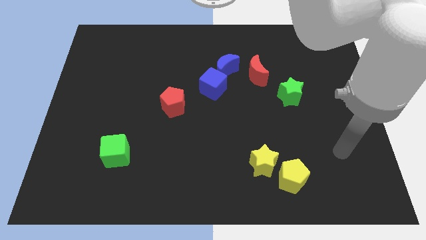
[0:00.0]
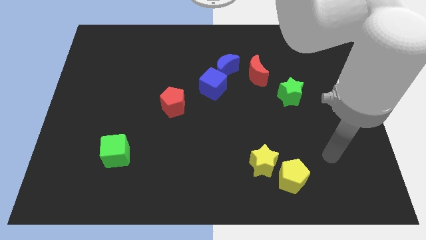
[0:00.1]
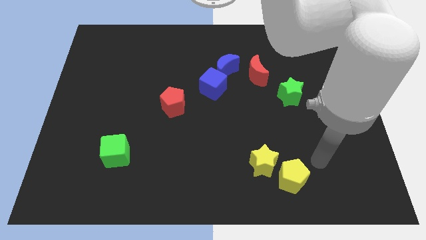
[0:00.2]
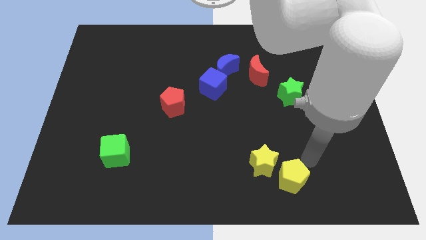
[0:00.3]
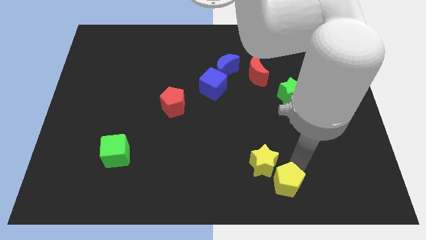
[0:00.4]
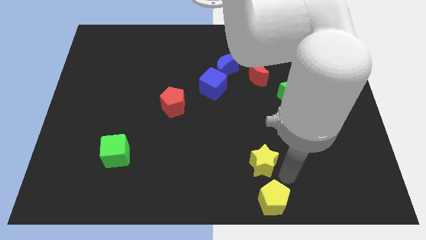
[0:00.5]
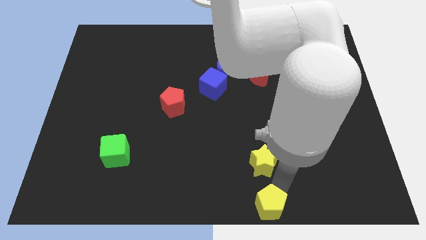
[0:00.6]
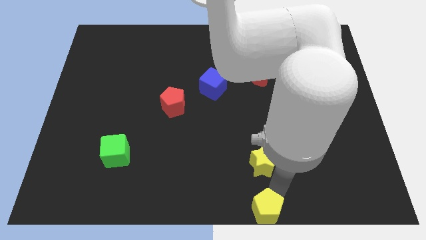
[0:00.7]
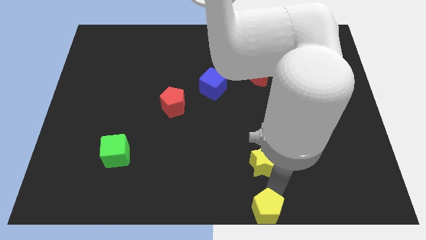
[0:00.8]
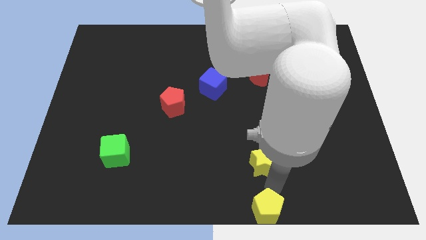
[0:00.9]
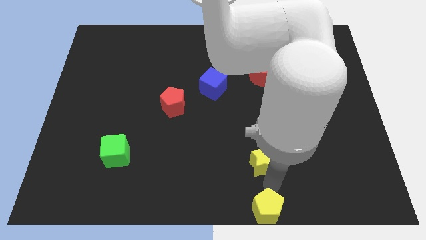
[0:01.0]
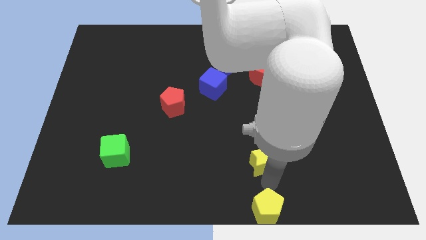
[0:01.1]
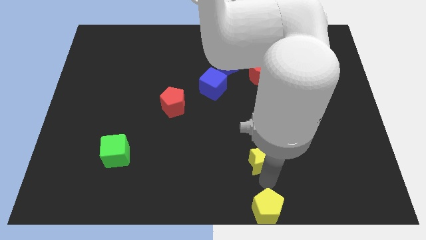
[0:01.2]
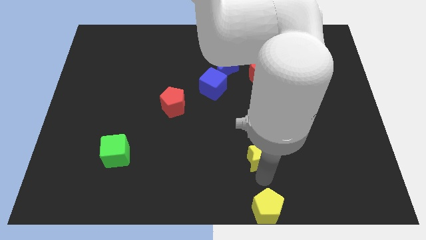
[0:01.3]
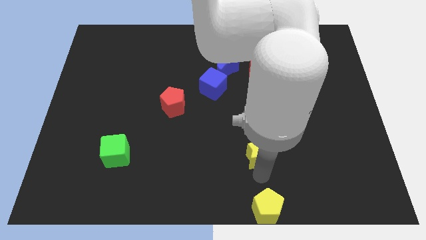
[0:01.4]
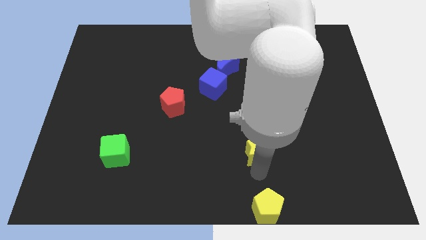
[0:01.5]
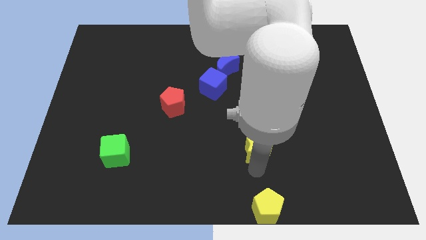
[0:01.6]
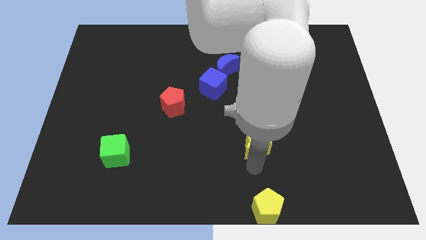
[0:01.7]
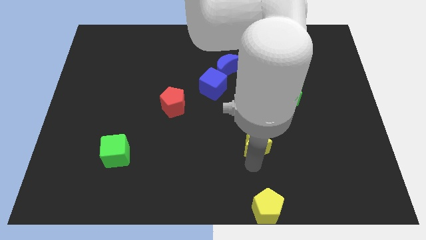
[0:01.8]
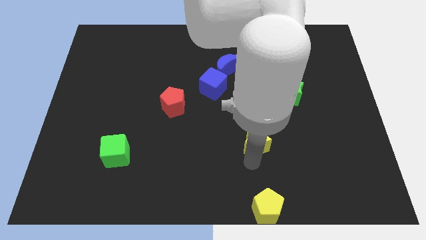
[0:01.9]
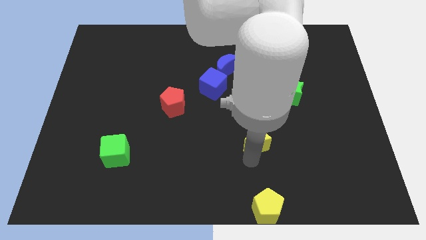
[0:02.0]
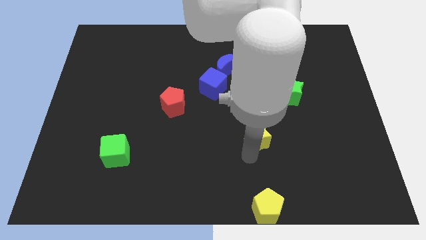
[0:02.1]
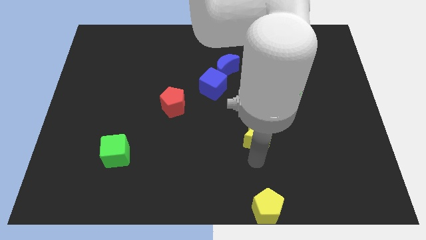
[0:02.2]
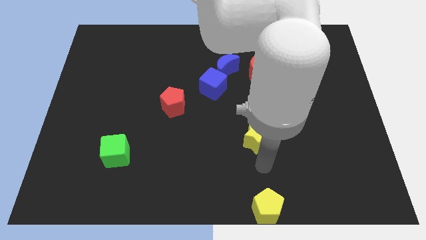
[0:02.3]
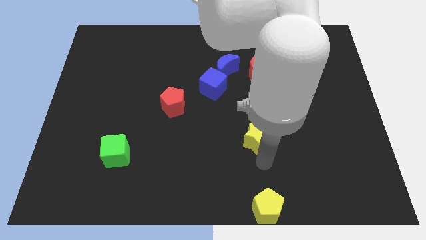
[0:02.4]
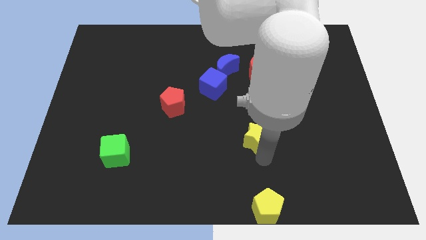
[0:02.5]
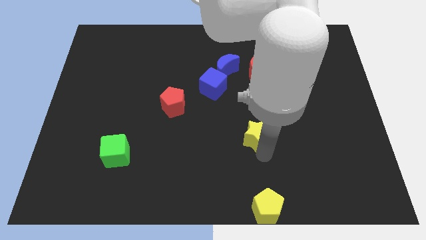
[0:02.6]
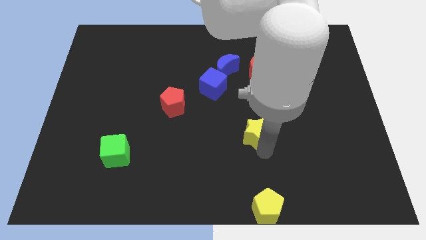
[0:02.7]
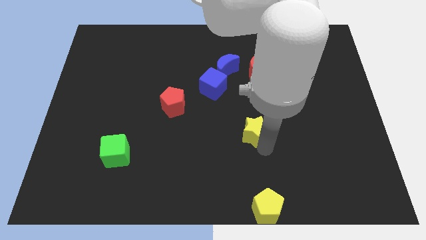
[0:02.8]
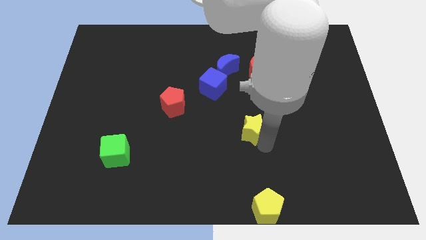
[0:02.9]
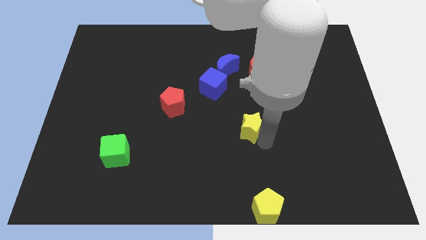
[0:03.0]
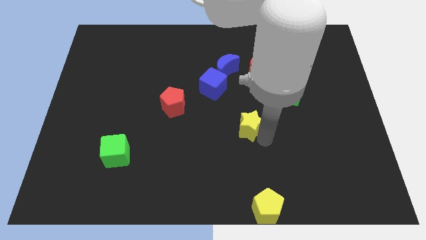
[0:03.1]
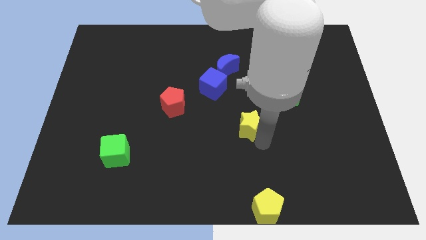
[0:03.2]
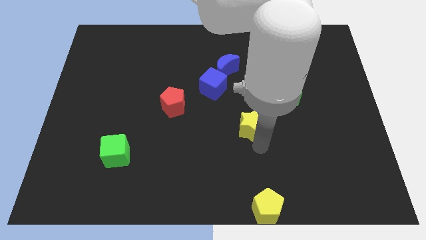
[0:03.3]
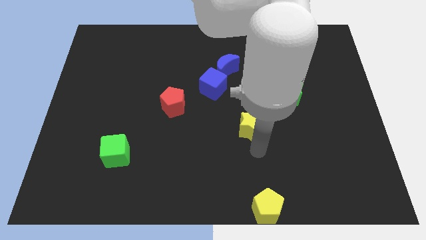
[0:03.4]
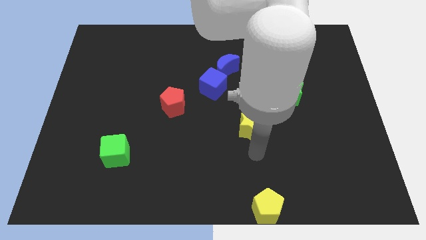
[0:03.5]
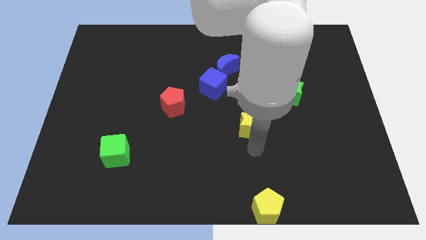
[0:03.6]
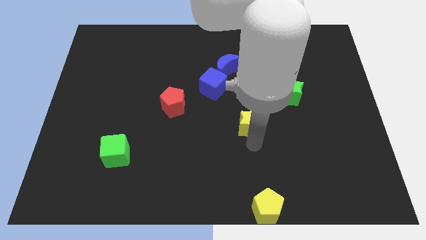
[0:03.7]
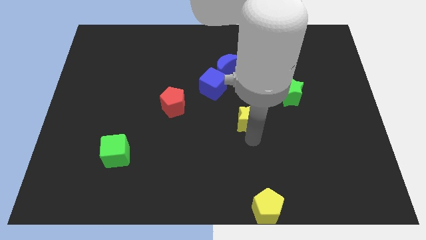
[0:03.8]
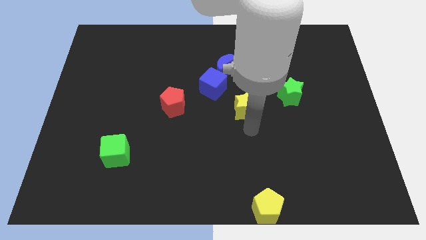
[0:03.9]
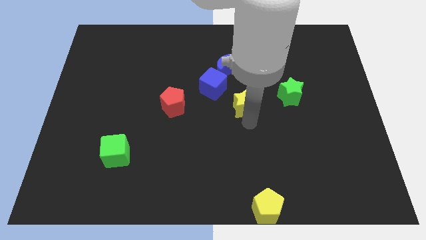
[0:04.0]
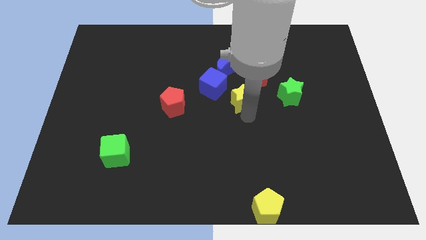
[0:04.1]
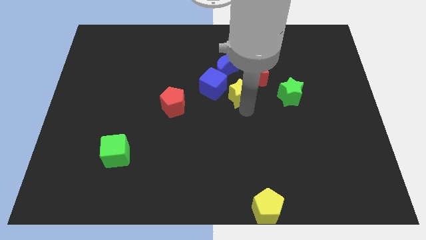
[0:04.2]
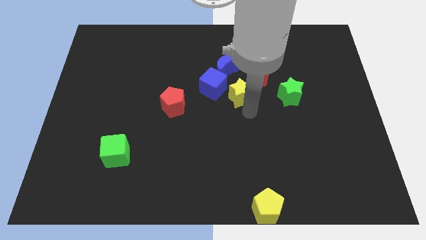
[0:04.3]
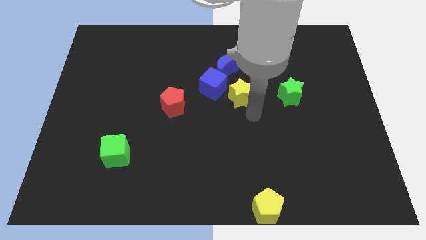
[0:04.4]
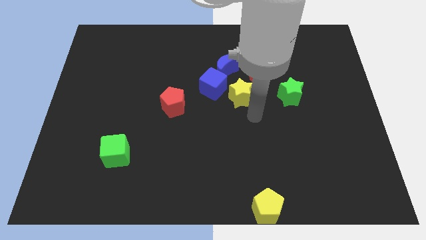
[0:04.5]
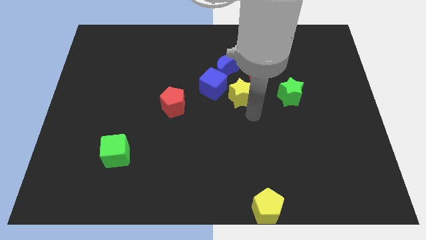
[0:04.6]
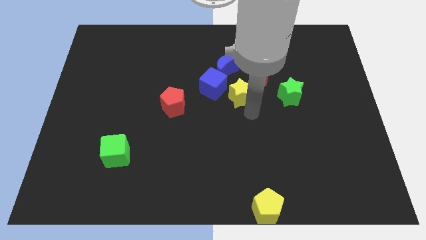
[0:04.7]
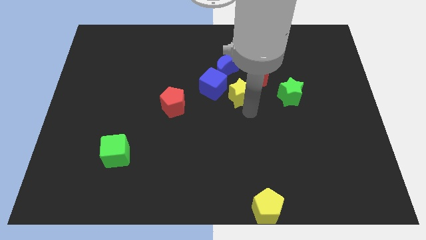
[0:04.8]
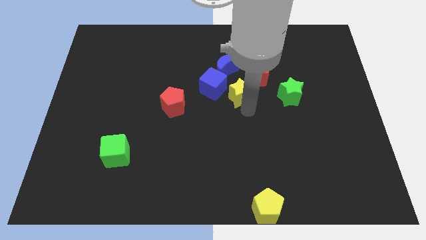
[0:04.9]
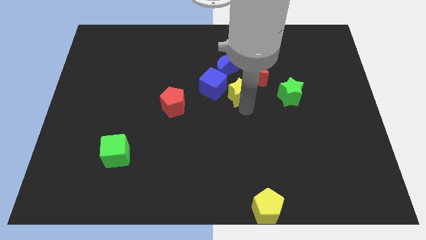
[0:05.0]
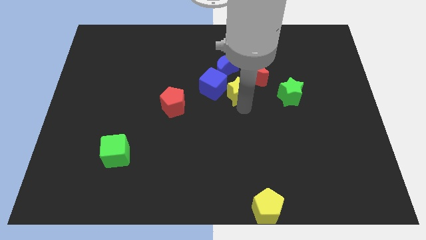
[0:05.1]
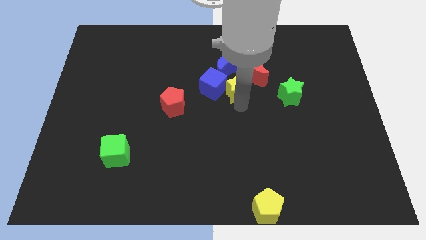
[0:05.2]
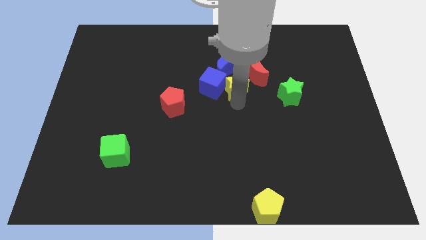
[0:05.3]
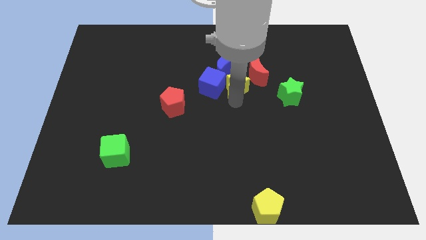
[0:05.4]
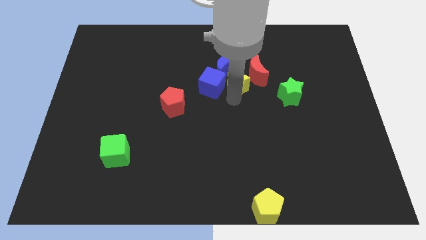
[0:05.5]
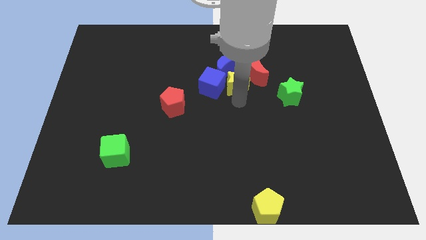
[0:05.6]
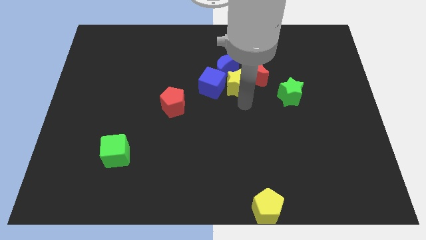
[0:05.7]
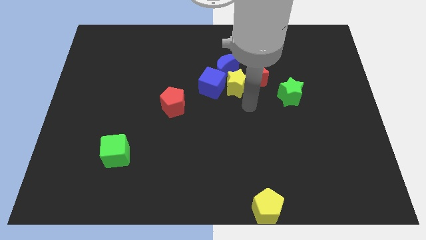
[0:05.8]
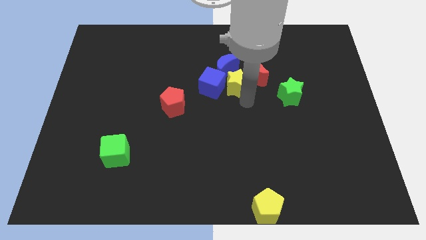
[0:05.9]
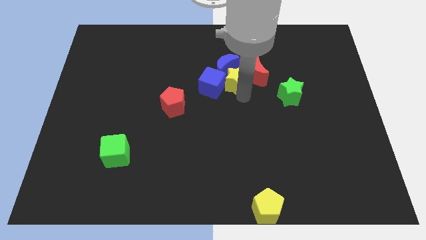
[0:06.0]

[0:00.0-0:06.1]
slide the yellow star close to the blue moon

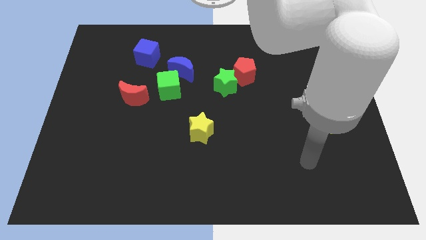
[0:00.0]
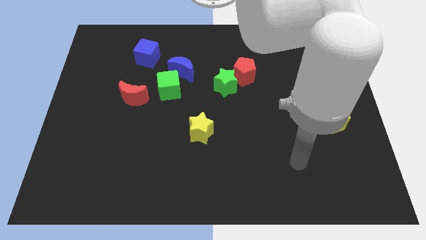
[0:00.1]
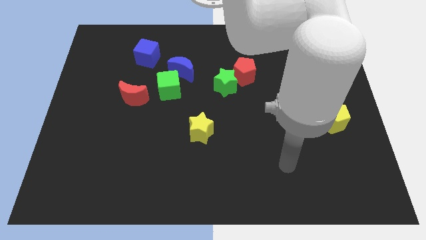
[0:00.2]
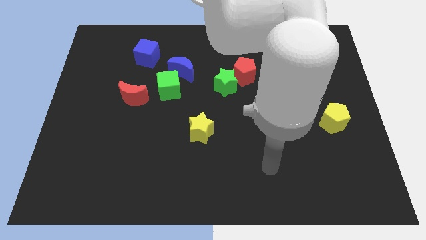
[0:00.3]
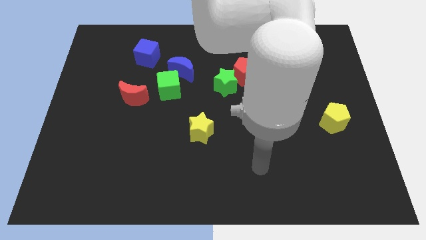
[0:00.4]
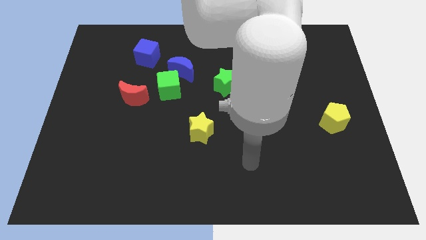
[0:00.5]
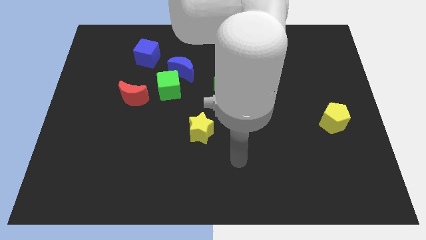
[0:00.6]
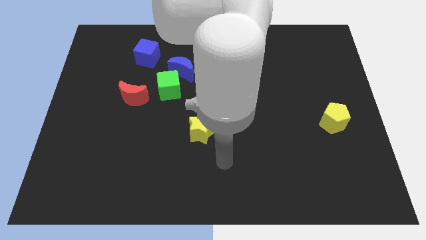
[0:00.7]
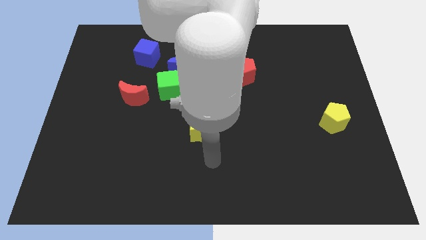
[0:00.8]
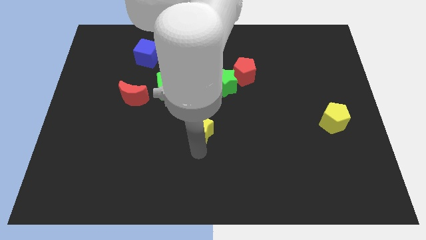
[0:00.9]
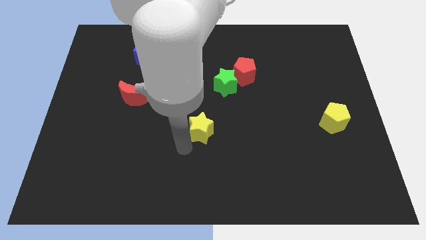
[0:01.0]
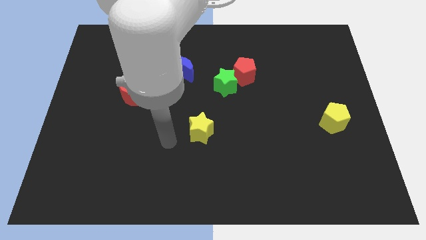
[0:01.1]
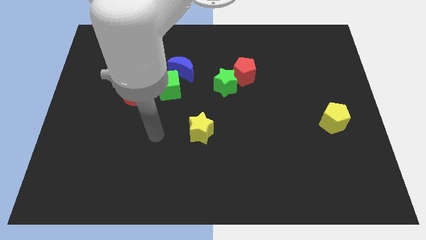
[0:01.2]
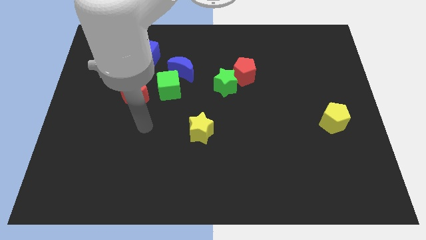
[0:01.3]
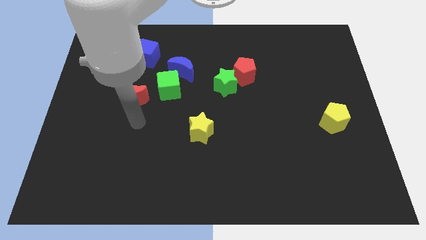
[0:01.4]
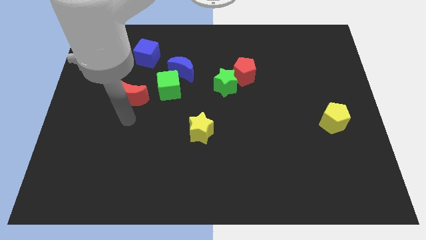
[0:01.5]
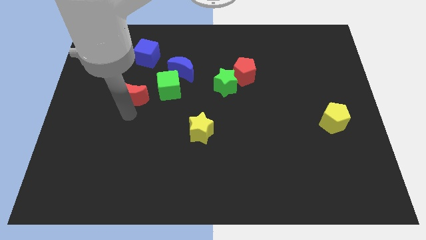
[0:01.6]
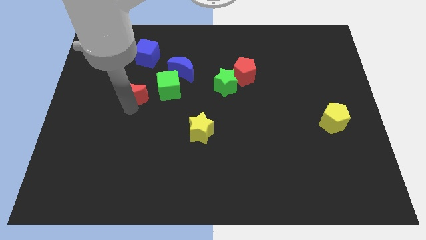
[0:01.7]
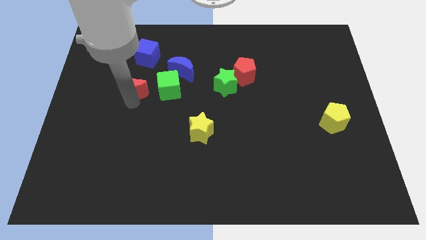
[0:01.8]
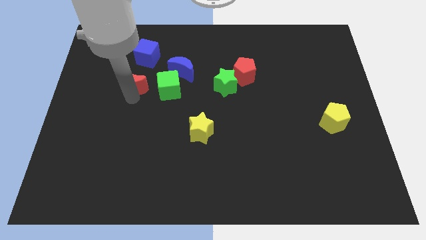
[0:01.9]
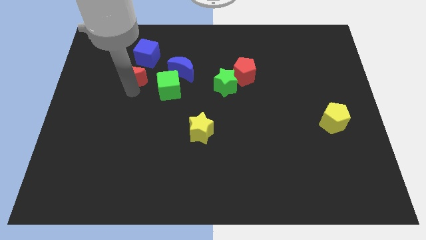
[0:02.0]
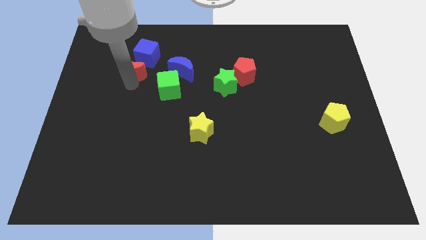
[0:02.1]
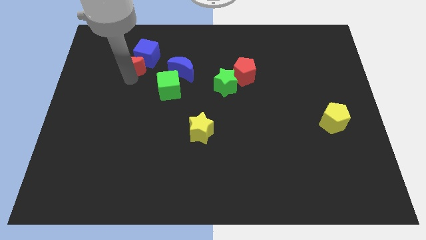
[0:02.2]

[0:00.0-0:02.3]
push the red moon towards the blue cube
